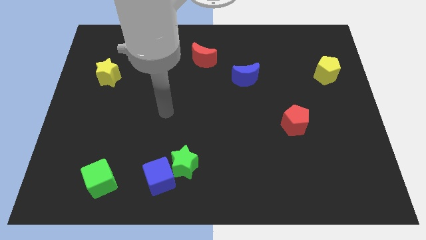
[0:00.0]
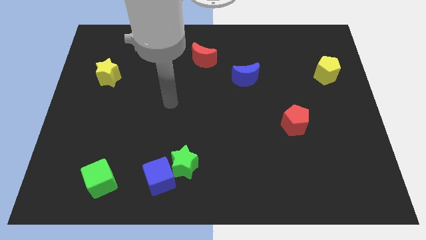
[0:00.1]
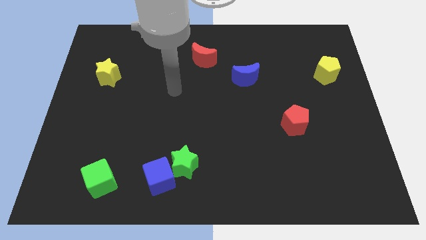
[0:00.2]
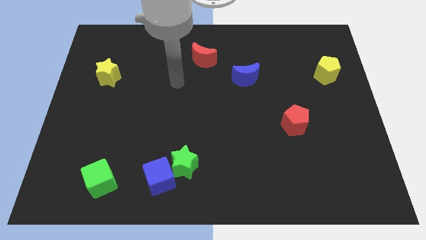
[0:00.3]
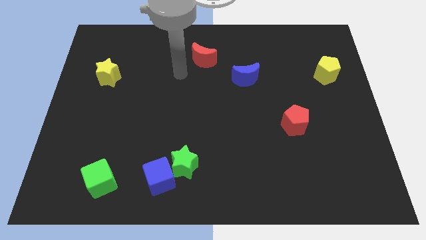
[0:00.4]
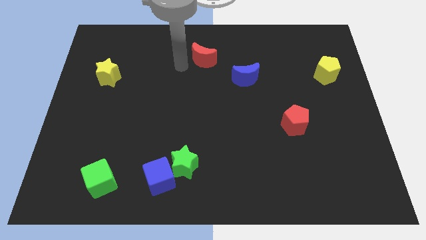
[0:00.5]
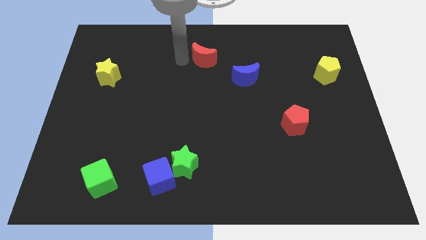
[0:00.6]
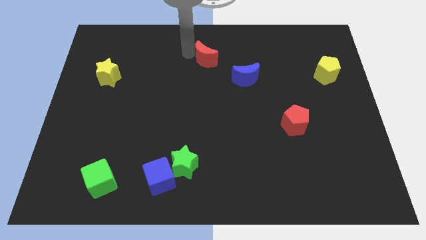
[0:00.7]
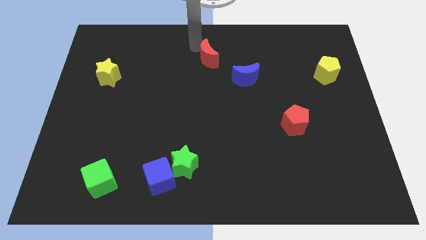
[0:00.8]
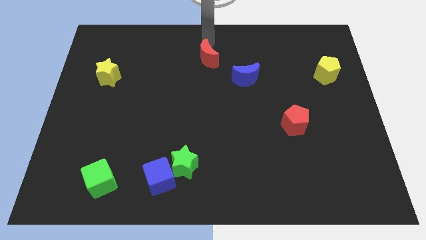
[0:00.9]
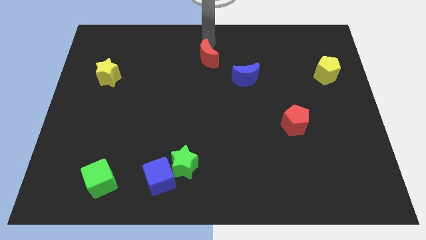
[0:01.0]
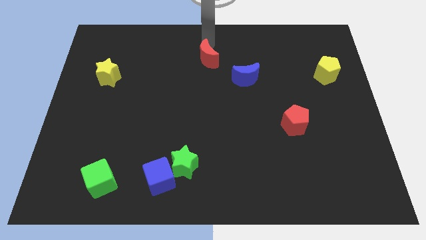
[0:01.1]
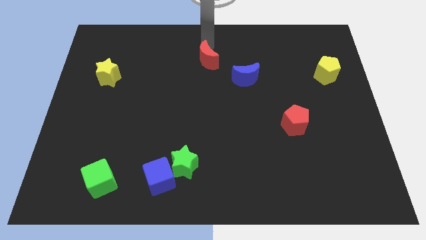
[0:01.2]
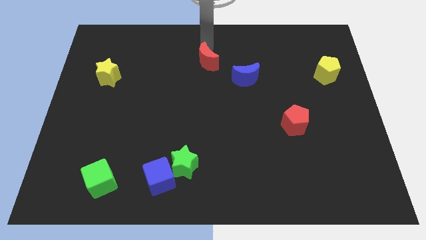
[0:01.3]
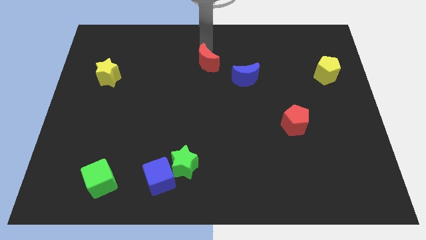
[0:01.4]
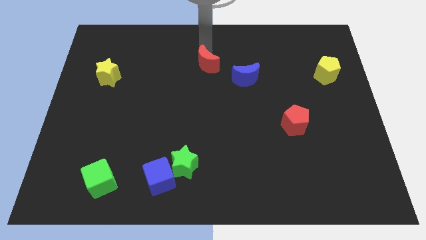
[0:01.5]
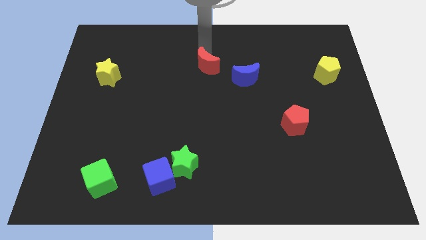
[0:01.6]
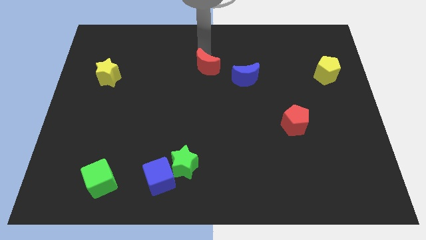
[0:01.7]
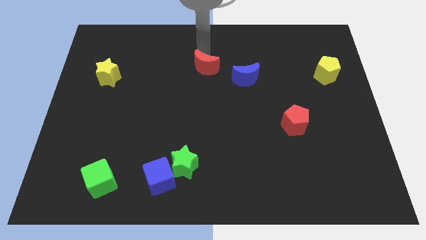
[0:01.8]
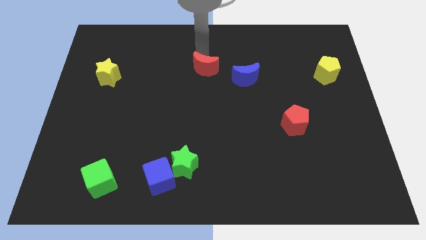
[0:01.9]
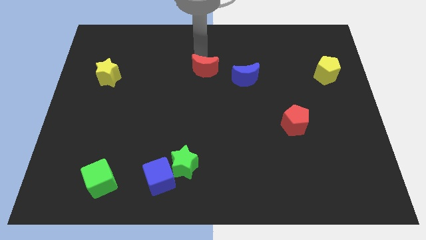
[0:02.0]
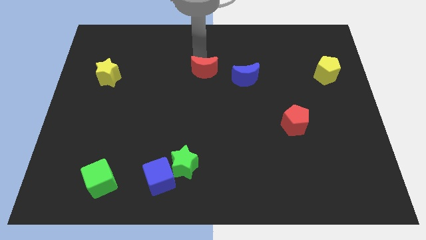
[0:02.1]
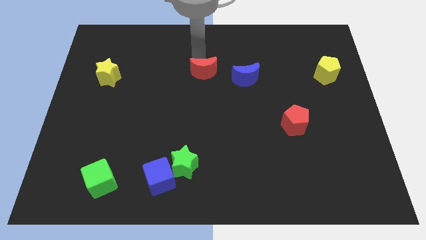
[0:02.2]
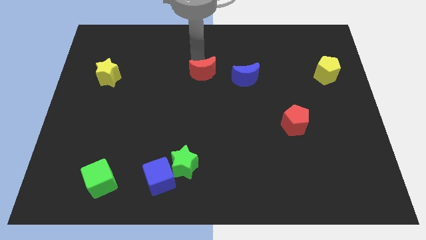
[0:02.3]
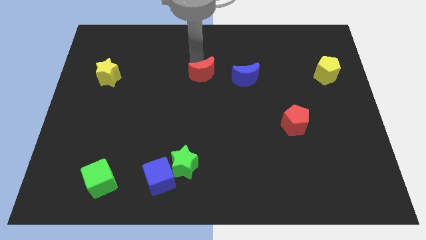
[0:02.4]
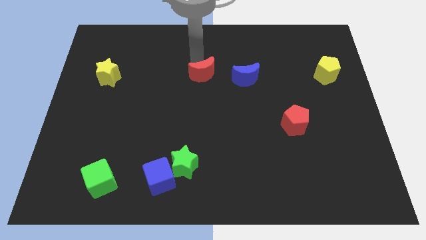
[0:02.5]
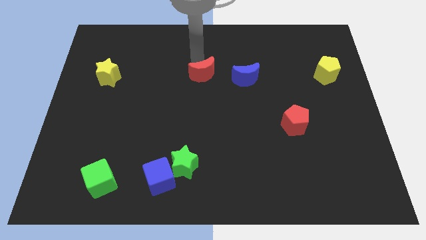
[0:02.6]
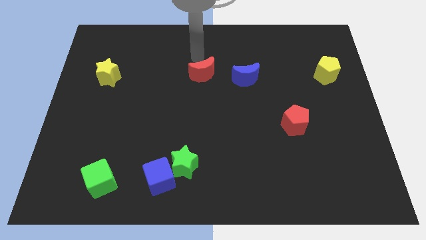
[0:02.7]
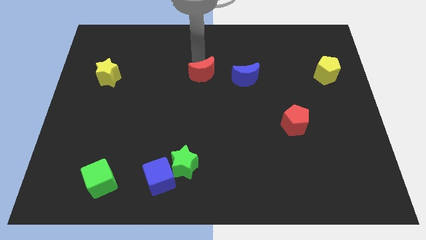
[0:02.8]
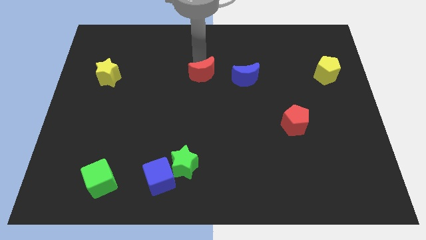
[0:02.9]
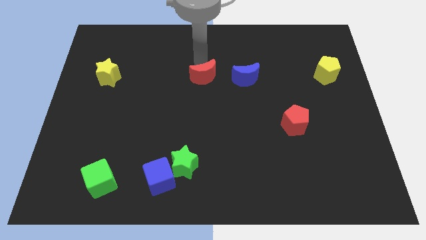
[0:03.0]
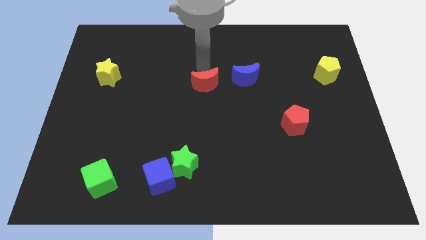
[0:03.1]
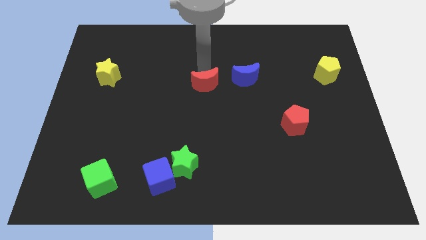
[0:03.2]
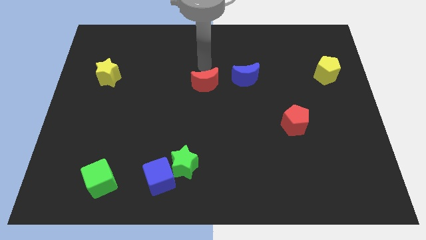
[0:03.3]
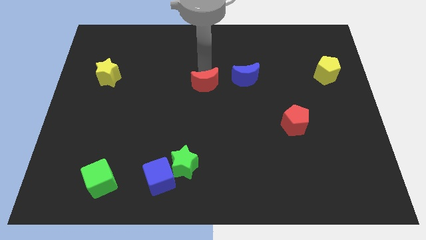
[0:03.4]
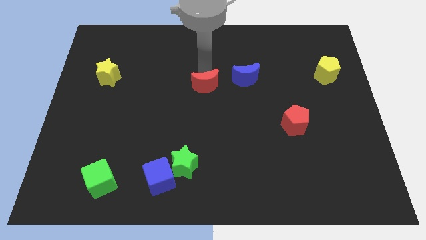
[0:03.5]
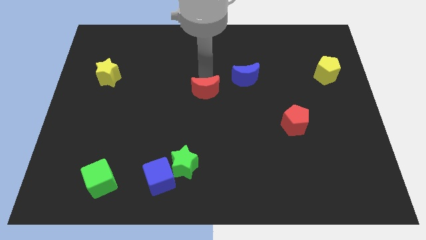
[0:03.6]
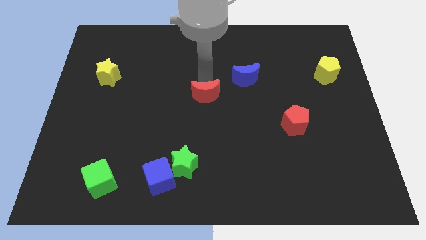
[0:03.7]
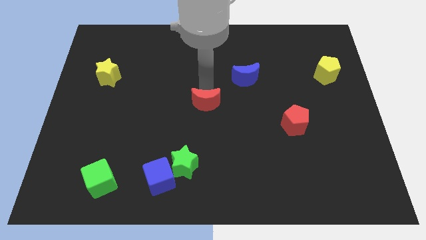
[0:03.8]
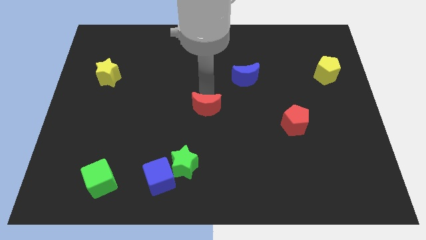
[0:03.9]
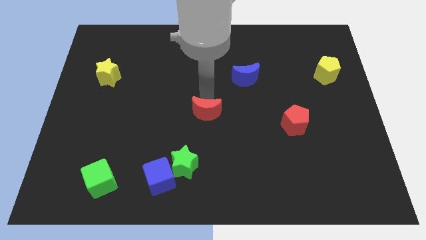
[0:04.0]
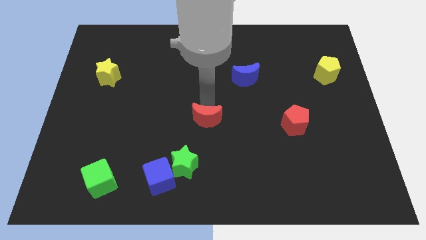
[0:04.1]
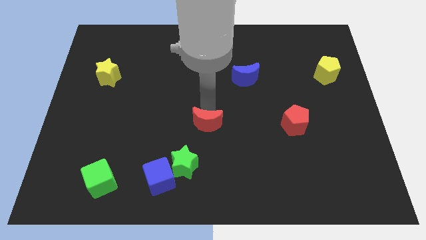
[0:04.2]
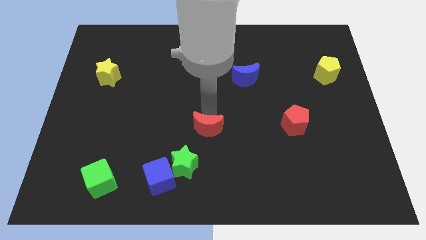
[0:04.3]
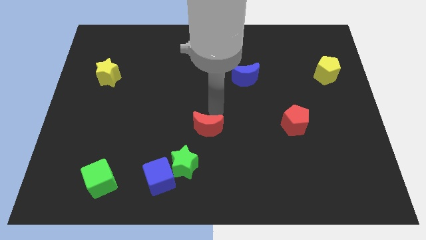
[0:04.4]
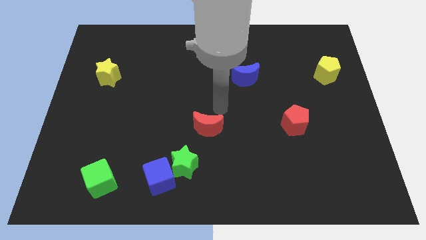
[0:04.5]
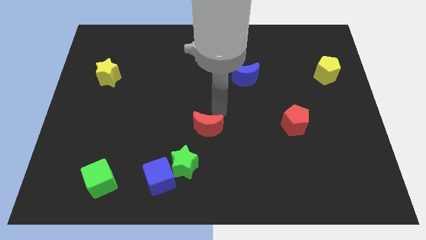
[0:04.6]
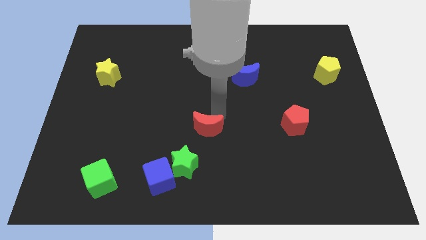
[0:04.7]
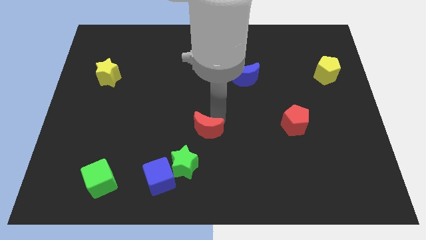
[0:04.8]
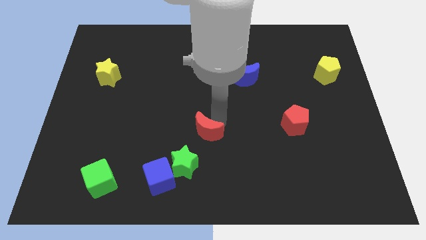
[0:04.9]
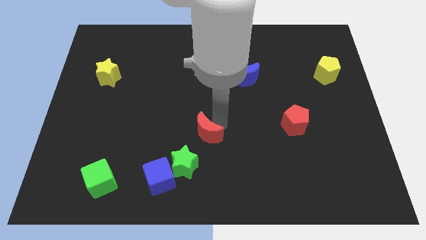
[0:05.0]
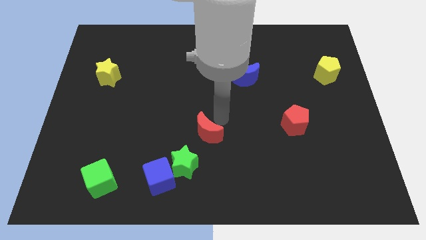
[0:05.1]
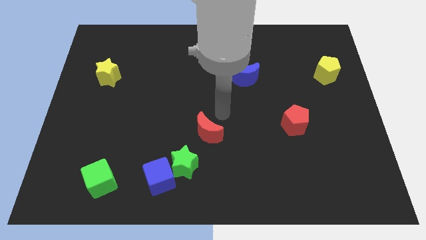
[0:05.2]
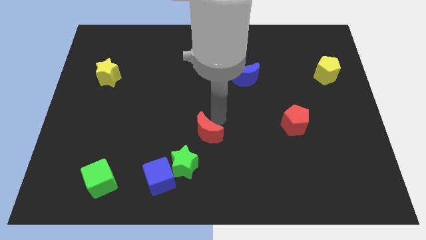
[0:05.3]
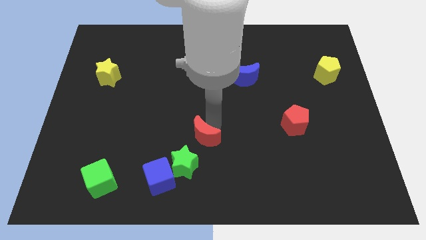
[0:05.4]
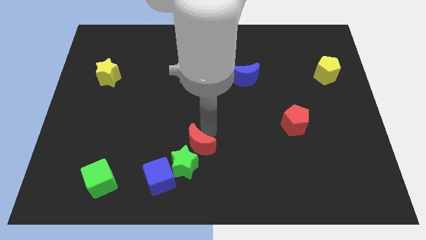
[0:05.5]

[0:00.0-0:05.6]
push the red moon to the green star

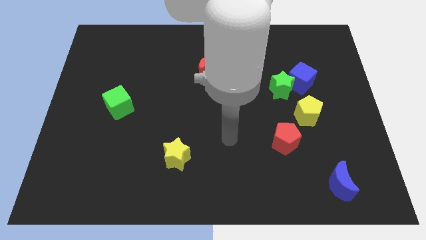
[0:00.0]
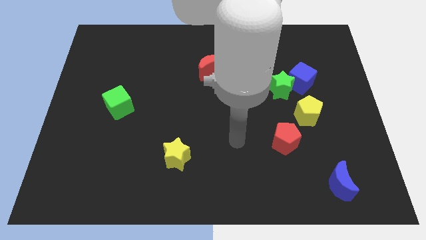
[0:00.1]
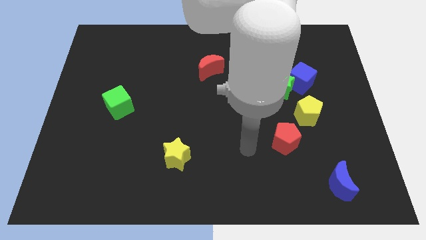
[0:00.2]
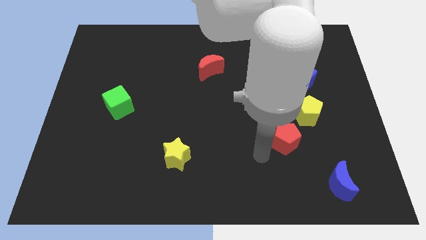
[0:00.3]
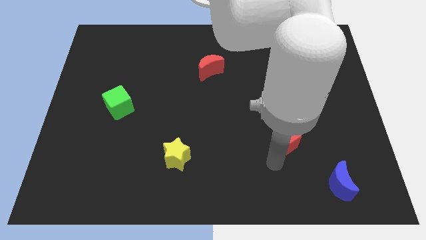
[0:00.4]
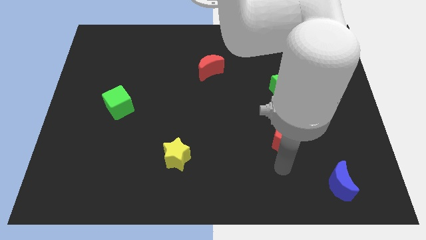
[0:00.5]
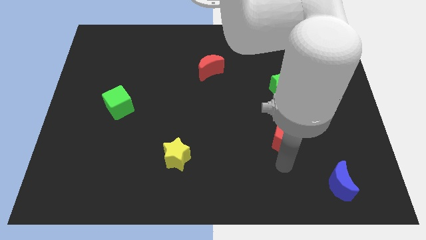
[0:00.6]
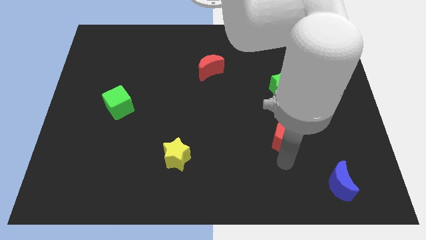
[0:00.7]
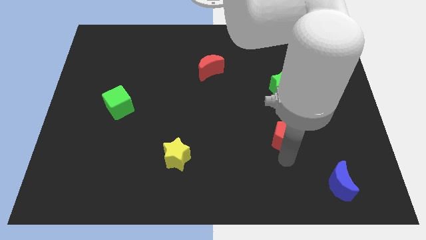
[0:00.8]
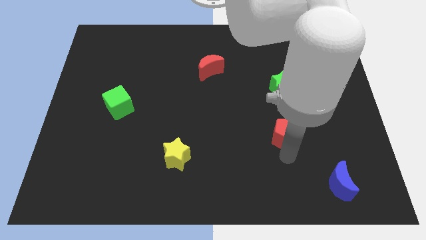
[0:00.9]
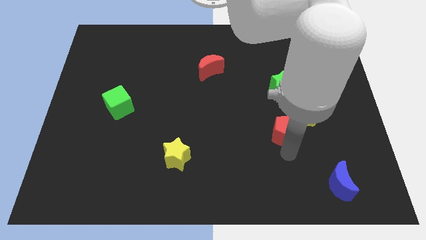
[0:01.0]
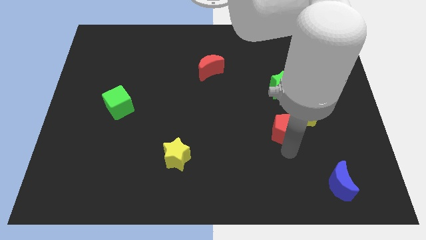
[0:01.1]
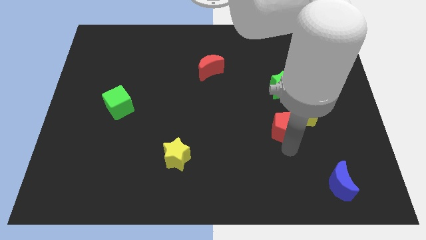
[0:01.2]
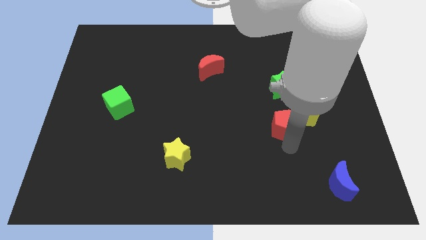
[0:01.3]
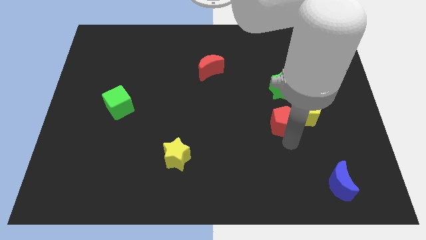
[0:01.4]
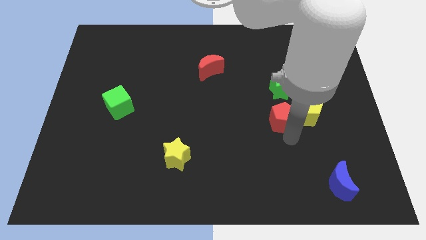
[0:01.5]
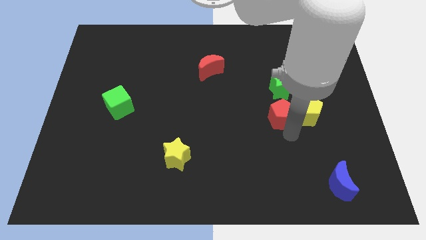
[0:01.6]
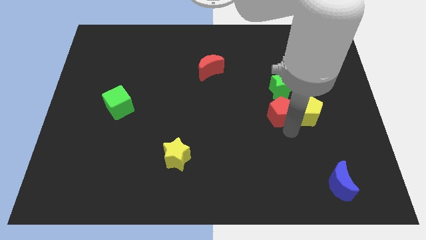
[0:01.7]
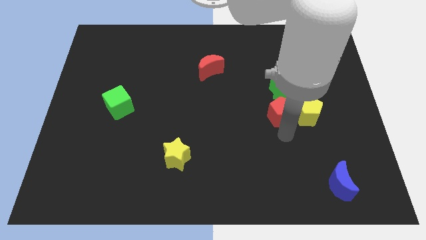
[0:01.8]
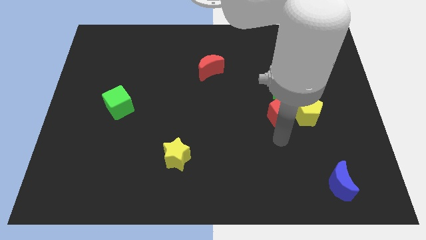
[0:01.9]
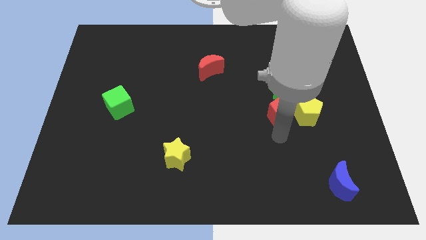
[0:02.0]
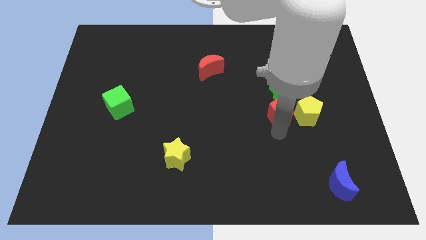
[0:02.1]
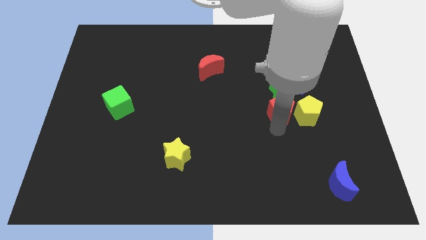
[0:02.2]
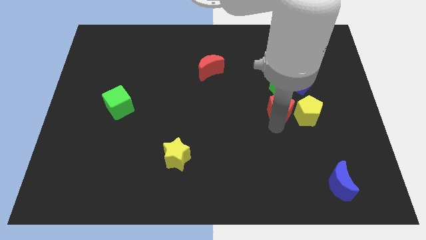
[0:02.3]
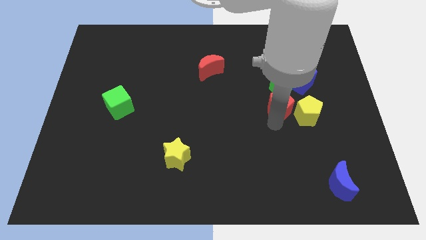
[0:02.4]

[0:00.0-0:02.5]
put the red pentagon close to the green star
